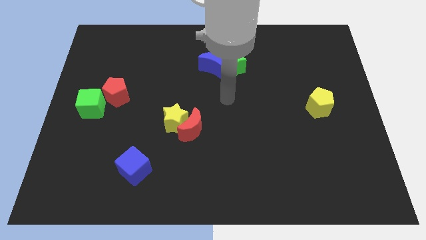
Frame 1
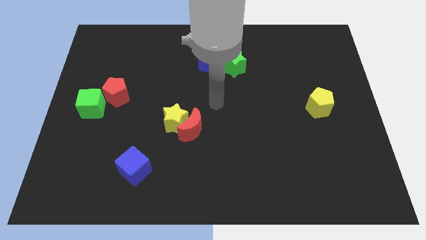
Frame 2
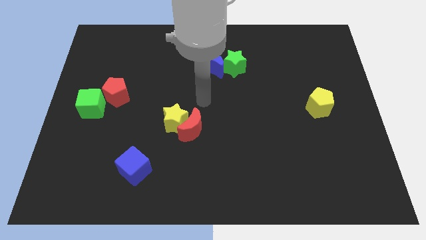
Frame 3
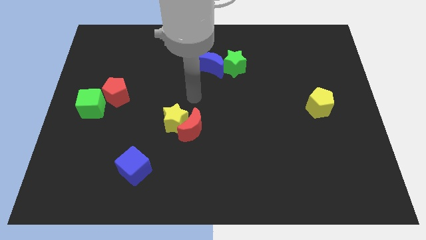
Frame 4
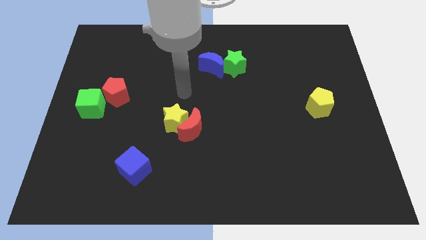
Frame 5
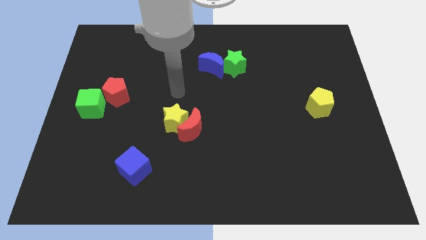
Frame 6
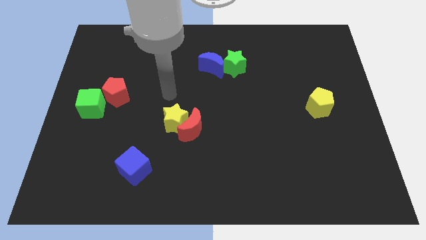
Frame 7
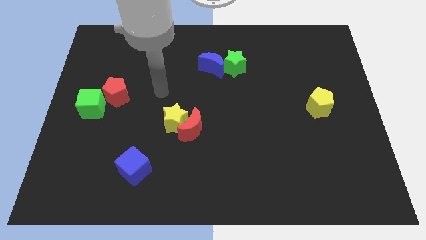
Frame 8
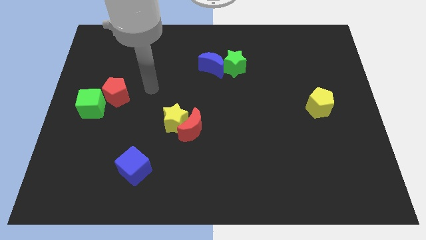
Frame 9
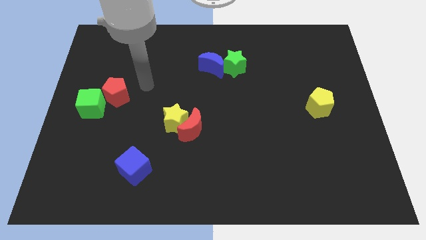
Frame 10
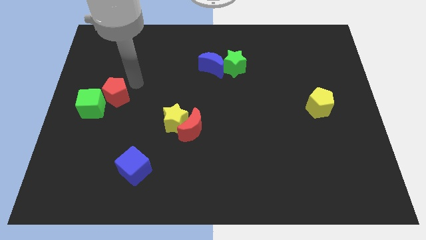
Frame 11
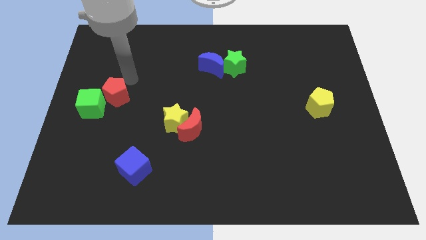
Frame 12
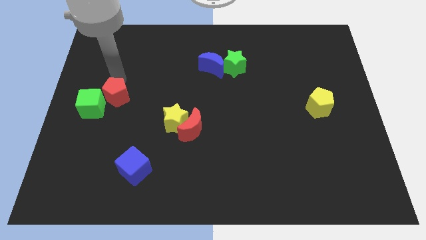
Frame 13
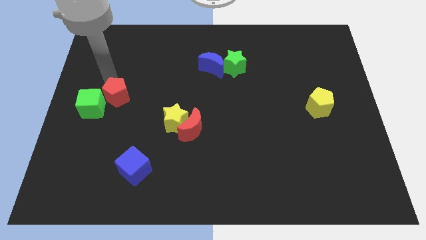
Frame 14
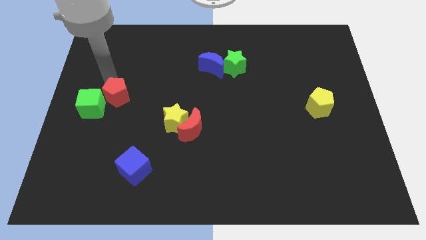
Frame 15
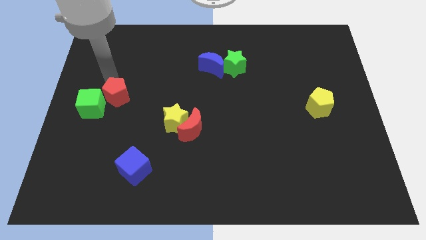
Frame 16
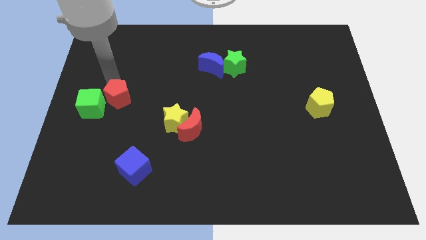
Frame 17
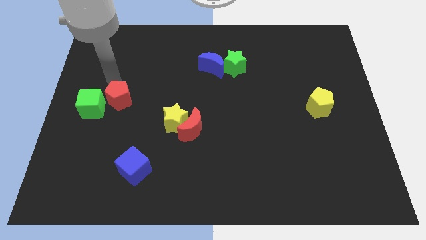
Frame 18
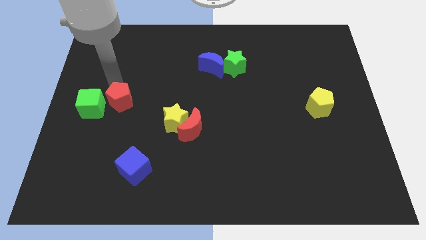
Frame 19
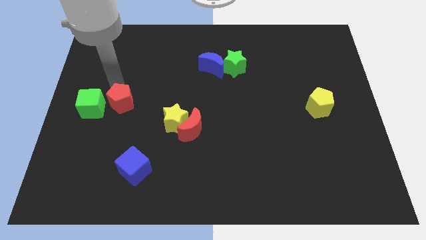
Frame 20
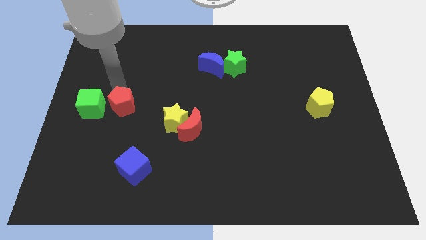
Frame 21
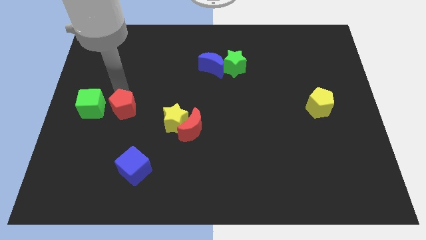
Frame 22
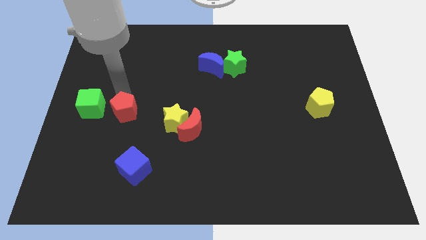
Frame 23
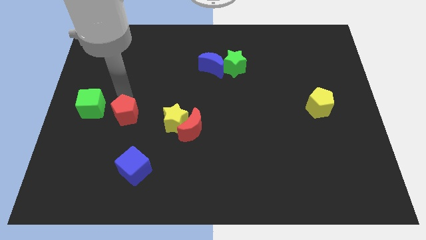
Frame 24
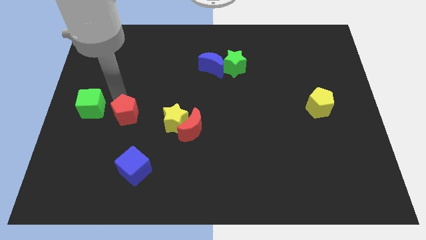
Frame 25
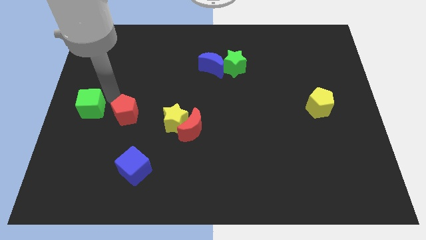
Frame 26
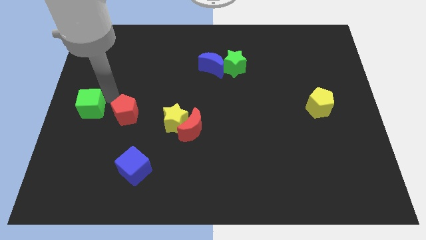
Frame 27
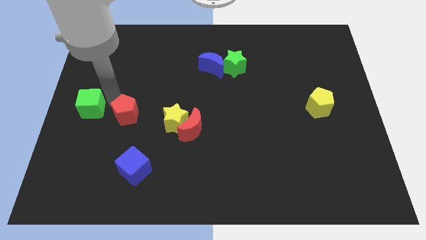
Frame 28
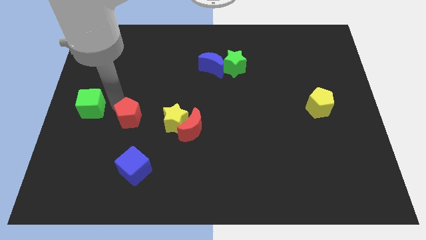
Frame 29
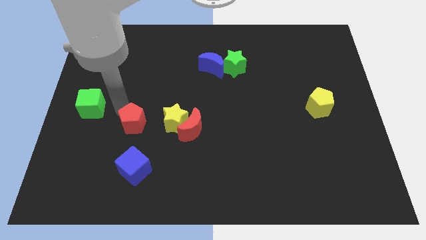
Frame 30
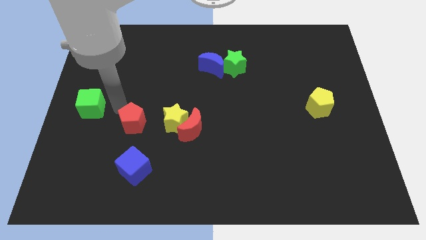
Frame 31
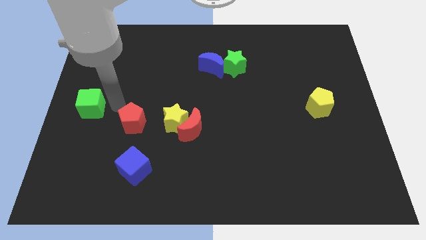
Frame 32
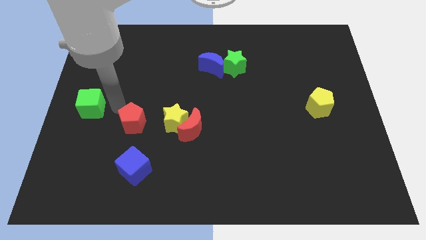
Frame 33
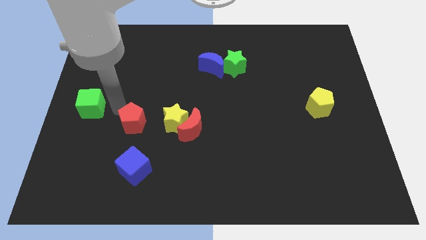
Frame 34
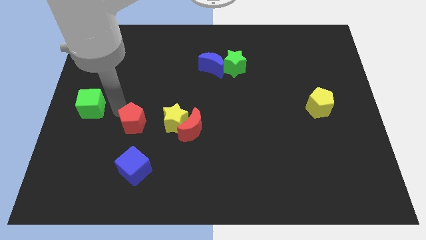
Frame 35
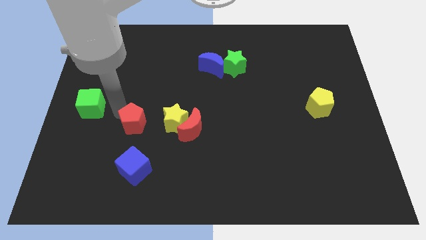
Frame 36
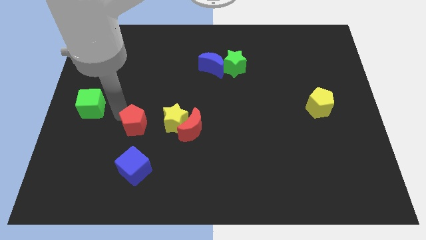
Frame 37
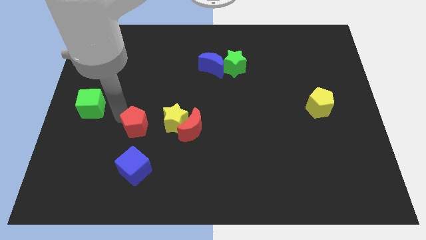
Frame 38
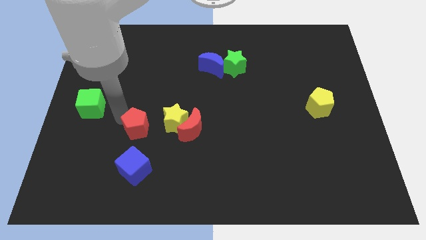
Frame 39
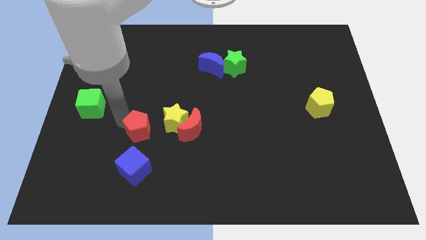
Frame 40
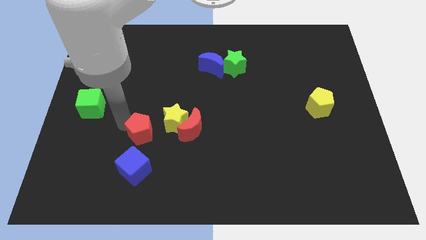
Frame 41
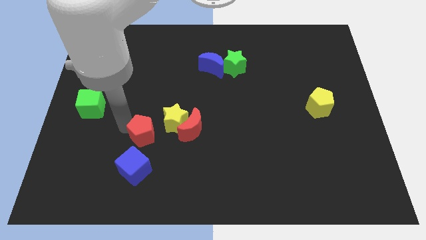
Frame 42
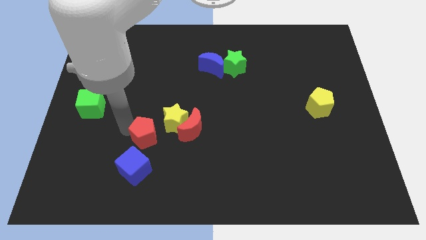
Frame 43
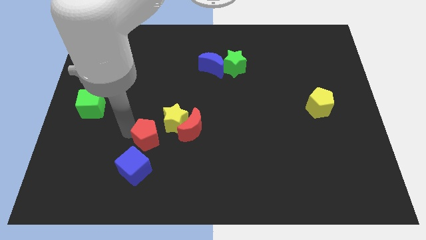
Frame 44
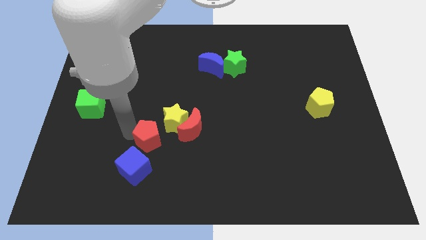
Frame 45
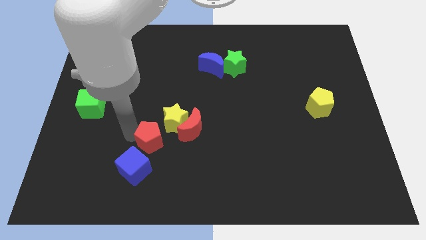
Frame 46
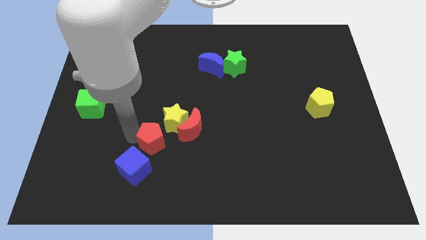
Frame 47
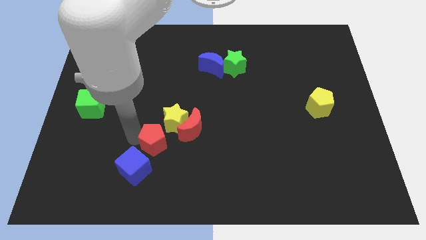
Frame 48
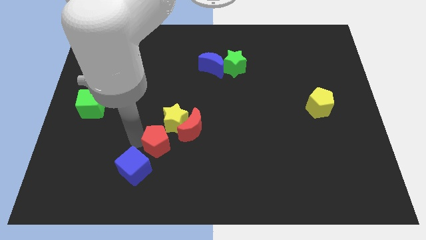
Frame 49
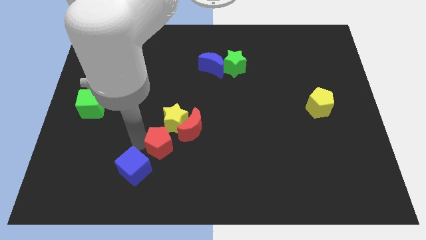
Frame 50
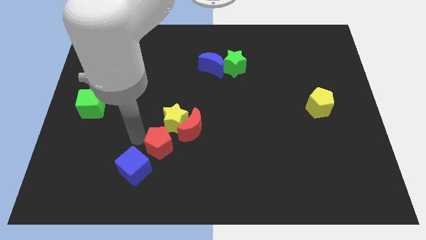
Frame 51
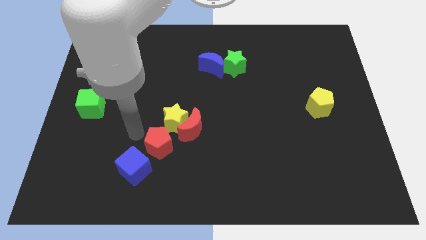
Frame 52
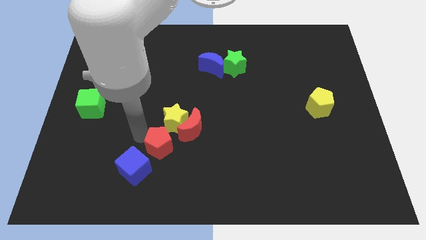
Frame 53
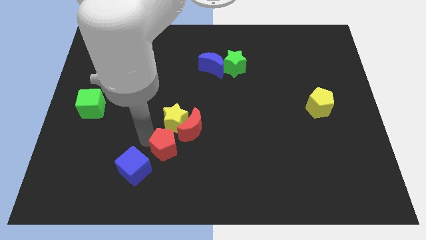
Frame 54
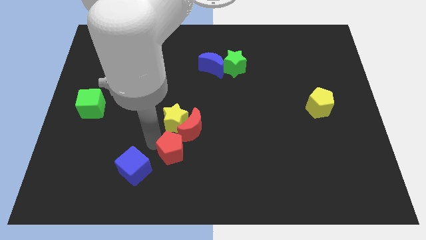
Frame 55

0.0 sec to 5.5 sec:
push the red pentagon down and right

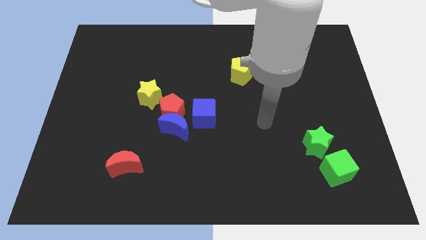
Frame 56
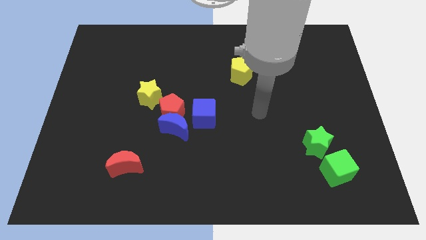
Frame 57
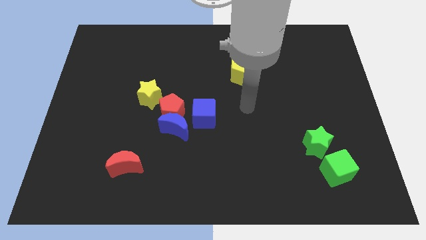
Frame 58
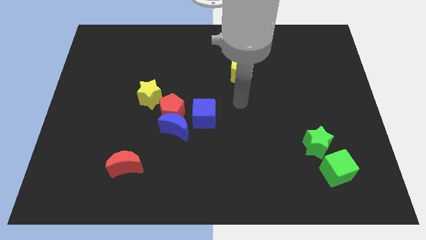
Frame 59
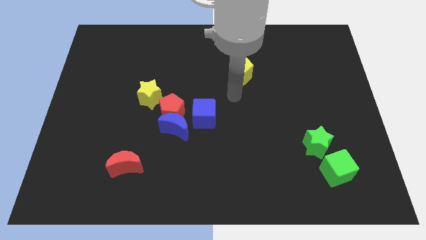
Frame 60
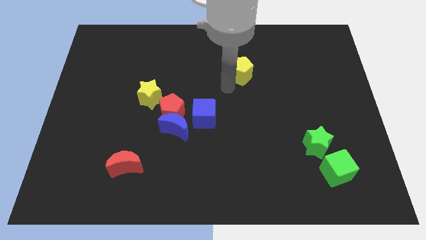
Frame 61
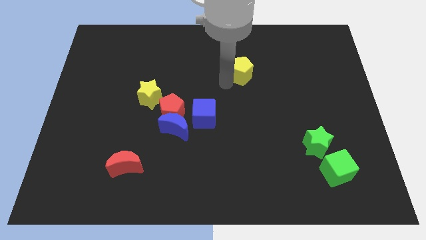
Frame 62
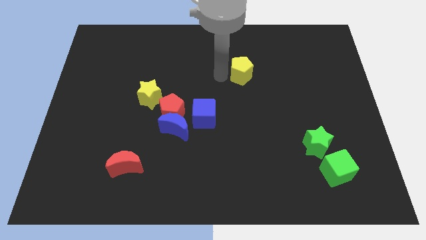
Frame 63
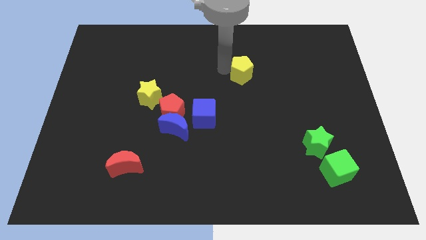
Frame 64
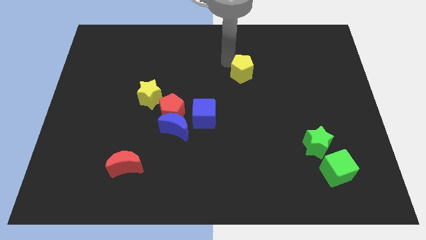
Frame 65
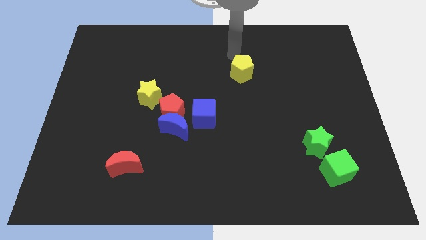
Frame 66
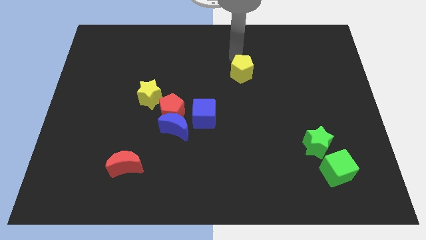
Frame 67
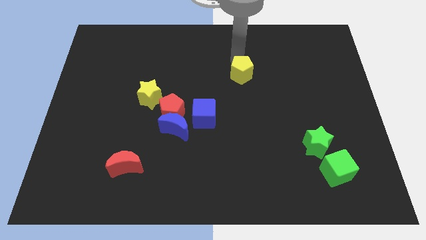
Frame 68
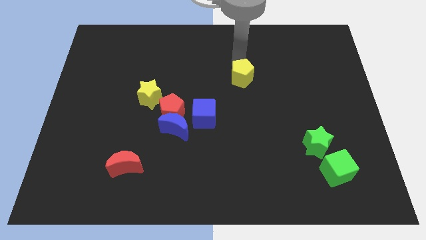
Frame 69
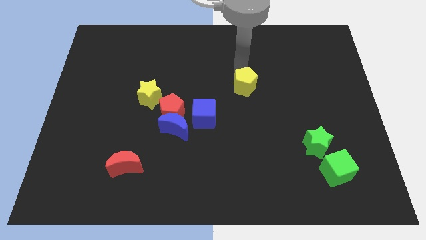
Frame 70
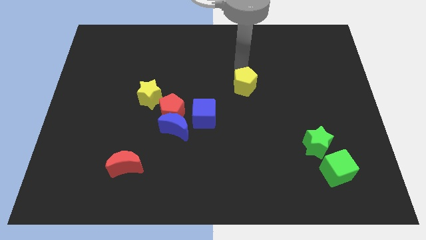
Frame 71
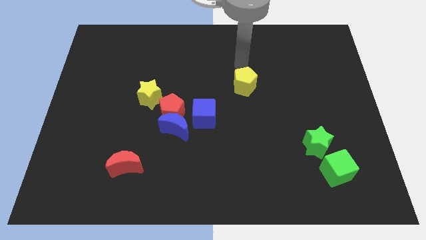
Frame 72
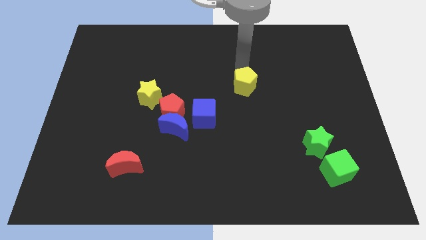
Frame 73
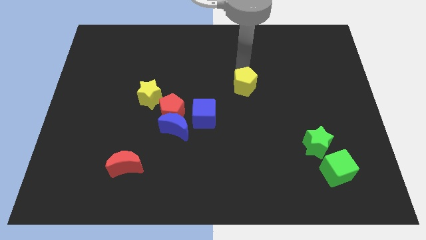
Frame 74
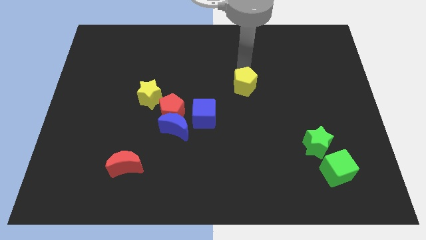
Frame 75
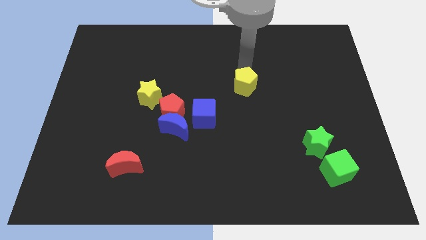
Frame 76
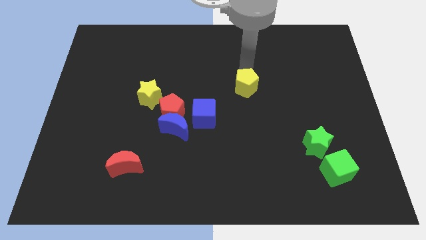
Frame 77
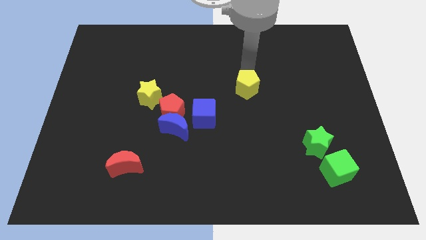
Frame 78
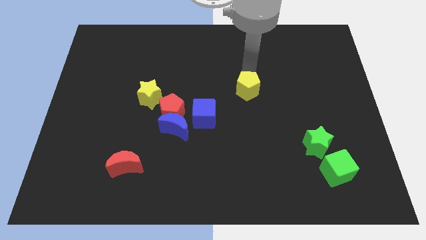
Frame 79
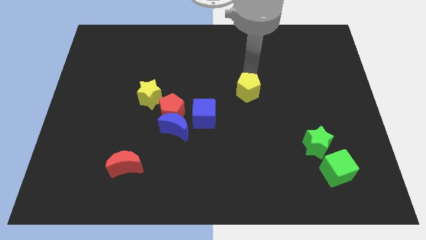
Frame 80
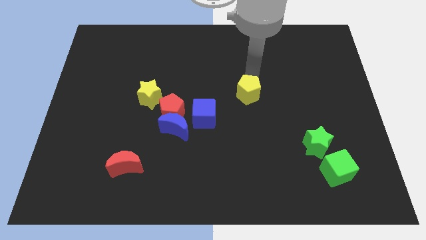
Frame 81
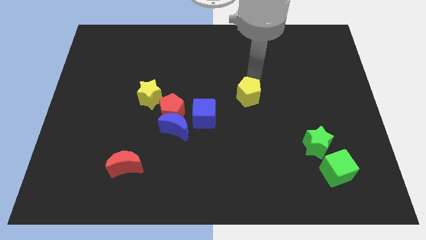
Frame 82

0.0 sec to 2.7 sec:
push the yellow pentagon down a little

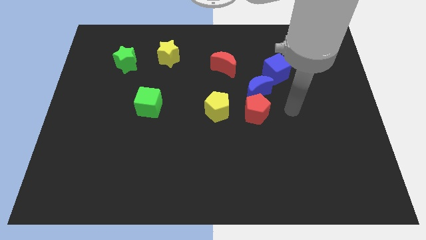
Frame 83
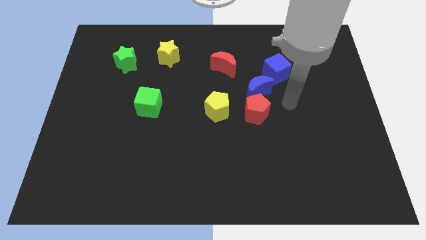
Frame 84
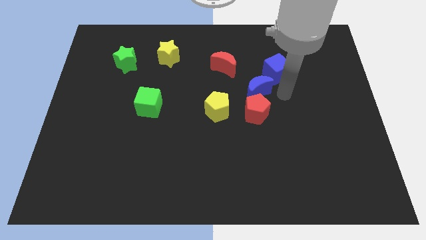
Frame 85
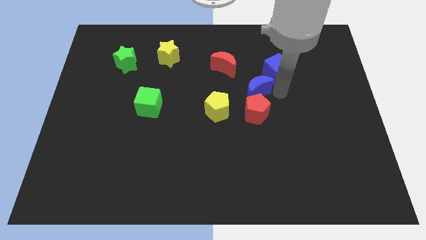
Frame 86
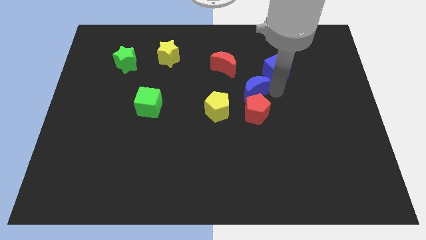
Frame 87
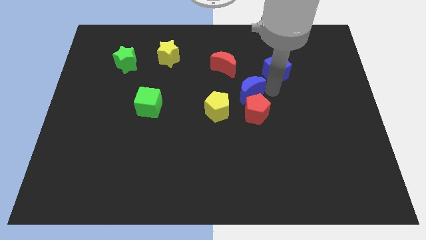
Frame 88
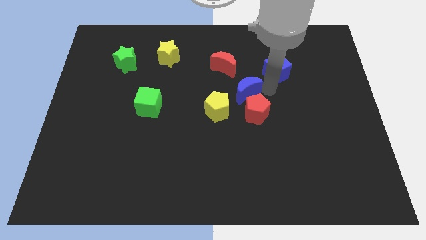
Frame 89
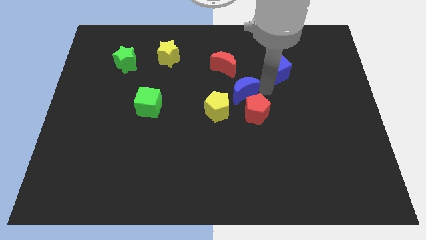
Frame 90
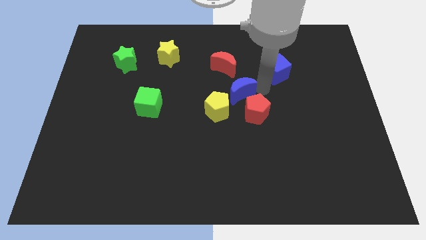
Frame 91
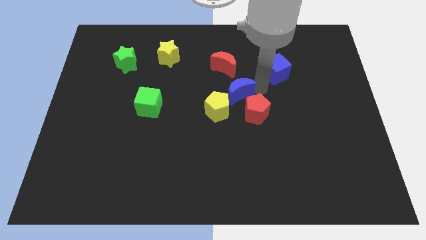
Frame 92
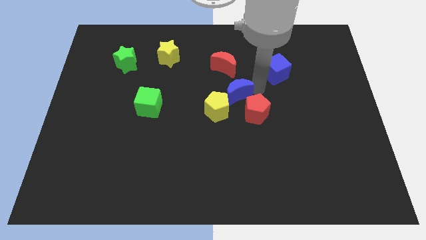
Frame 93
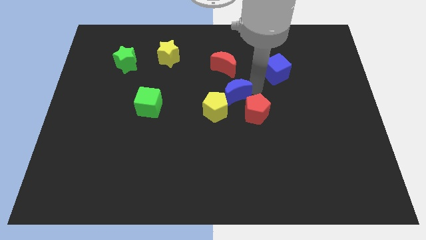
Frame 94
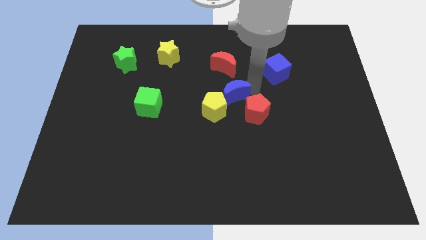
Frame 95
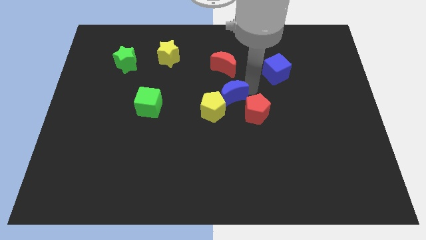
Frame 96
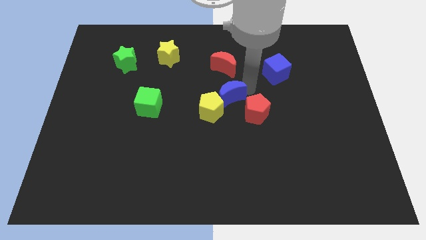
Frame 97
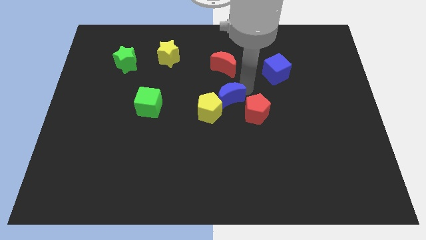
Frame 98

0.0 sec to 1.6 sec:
slightly push the blue moon to the left
